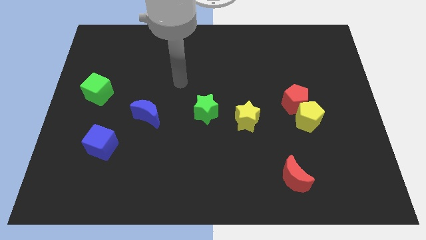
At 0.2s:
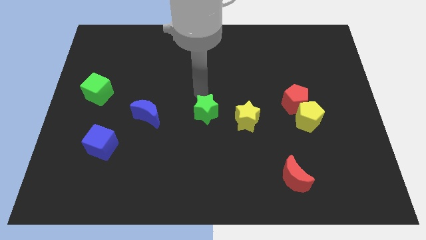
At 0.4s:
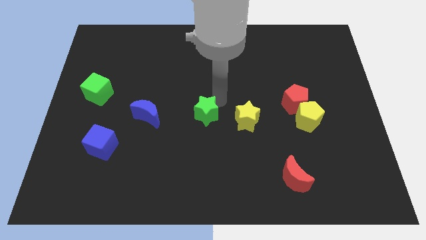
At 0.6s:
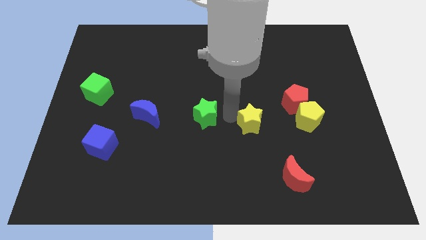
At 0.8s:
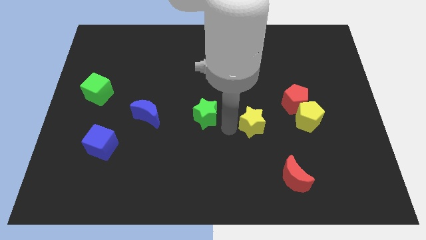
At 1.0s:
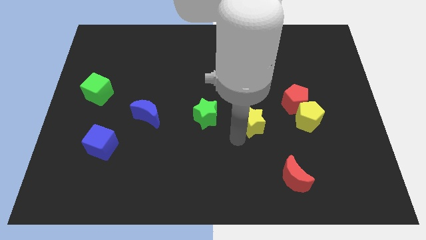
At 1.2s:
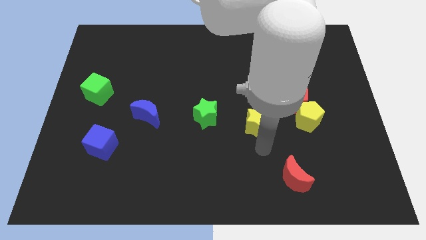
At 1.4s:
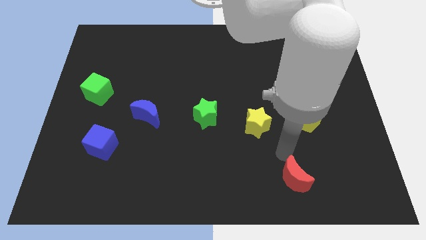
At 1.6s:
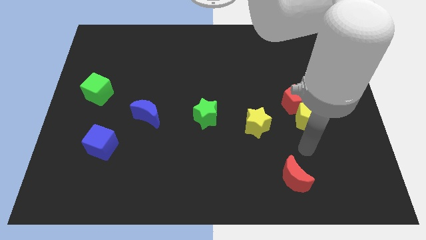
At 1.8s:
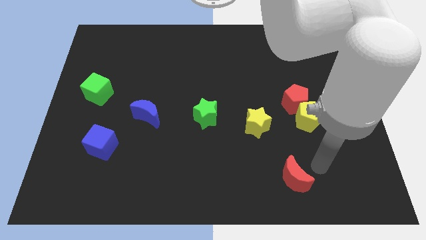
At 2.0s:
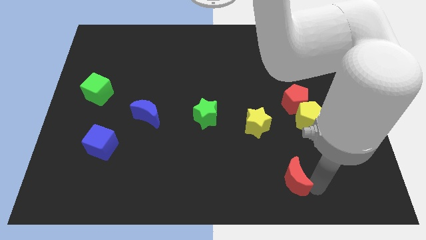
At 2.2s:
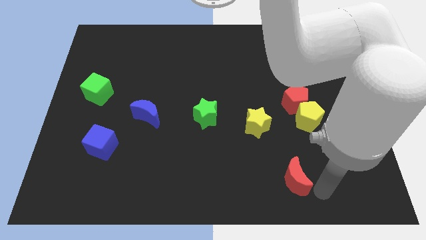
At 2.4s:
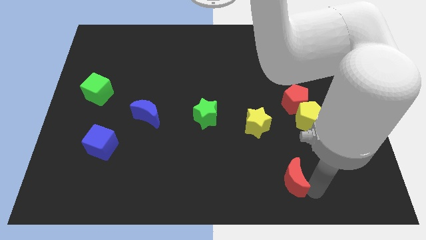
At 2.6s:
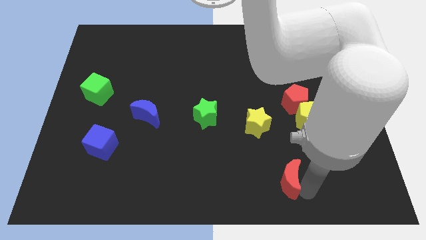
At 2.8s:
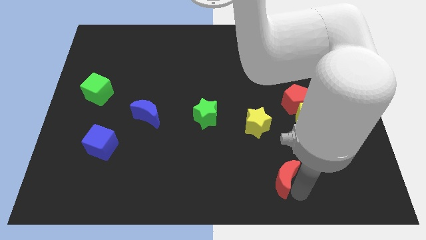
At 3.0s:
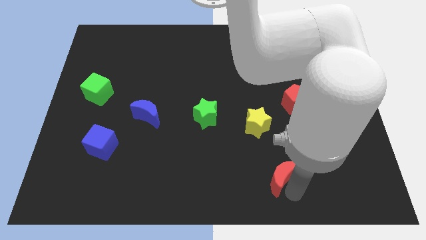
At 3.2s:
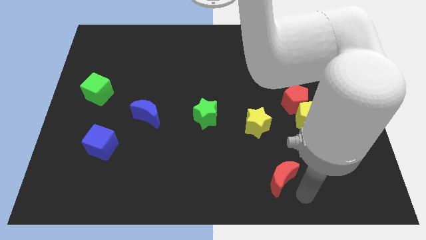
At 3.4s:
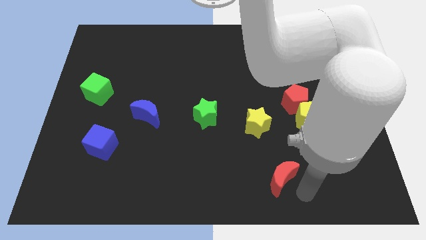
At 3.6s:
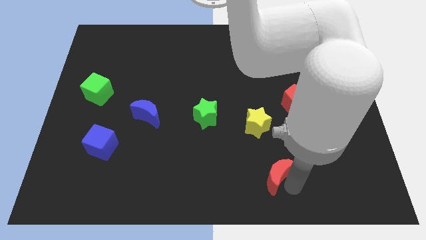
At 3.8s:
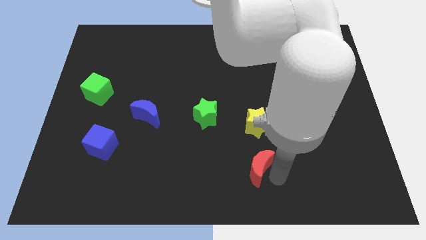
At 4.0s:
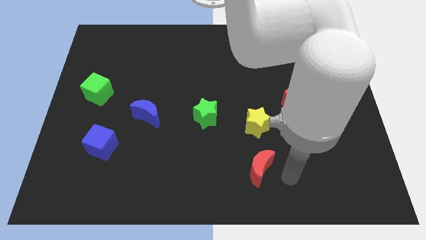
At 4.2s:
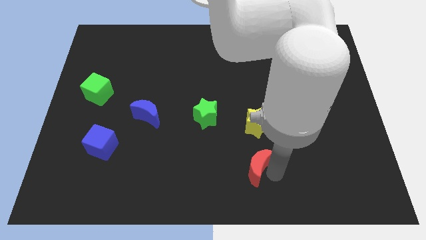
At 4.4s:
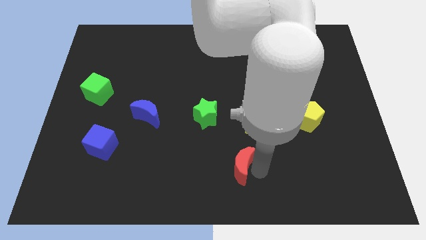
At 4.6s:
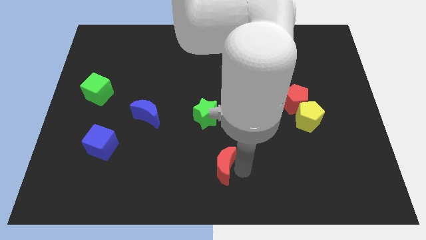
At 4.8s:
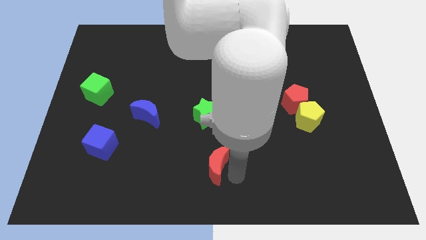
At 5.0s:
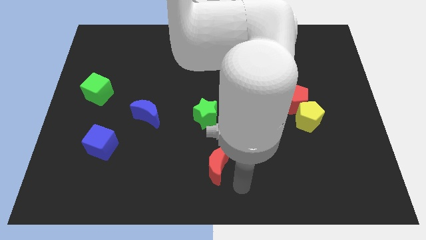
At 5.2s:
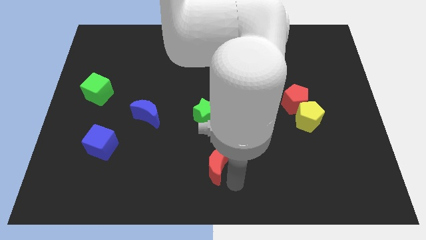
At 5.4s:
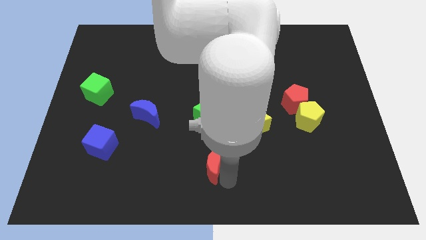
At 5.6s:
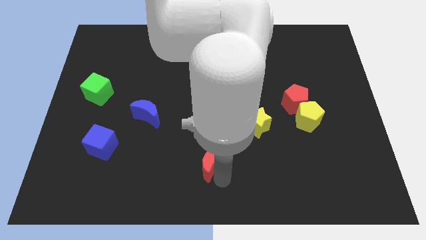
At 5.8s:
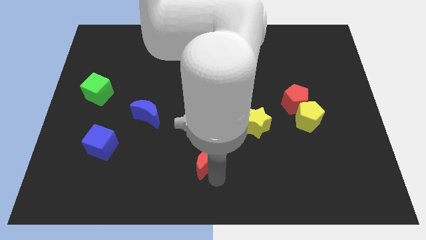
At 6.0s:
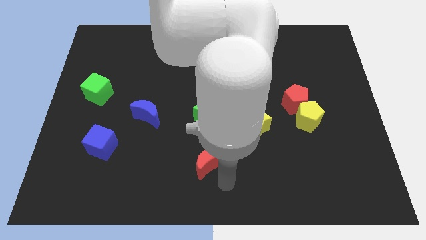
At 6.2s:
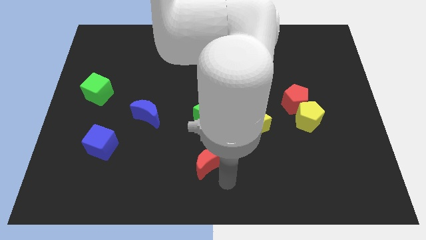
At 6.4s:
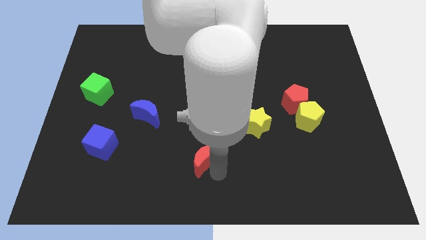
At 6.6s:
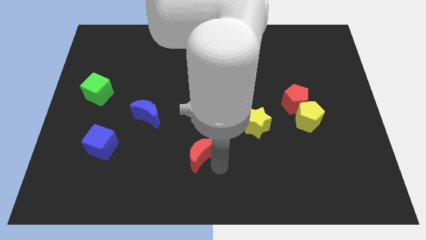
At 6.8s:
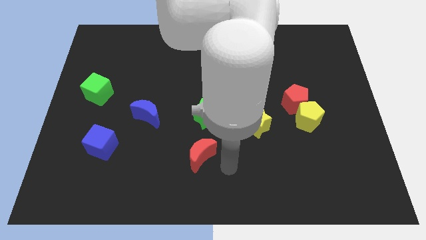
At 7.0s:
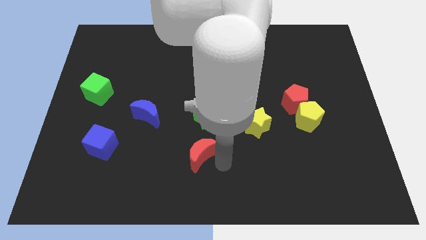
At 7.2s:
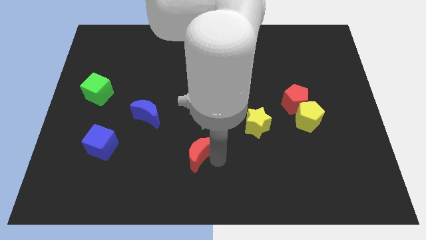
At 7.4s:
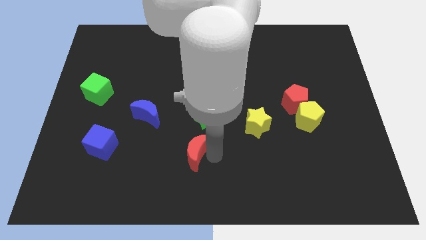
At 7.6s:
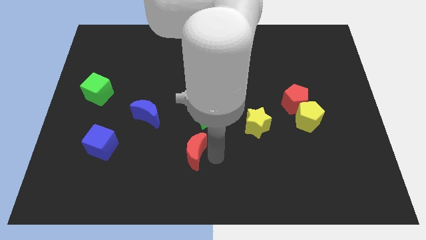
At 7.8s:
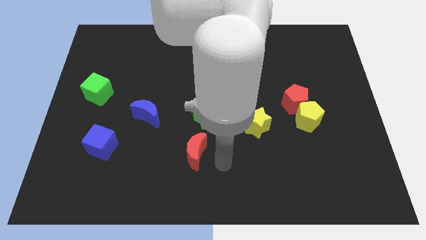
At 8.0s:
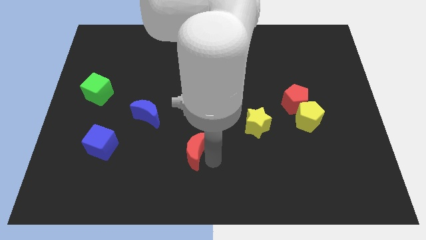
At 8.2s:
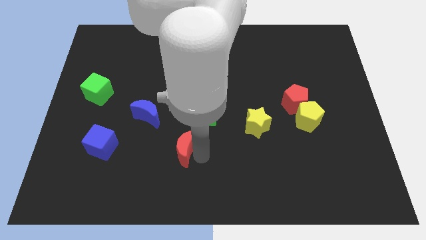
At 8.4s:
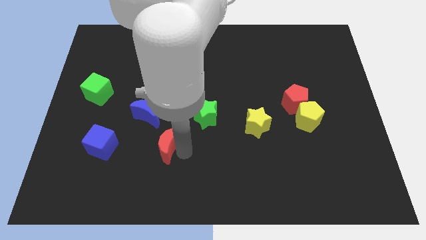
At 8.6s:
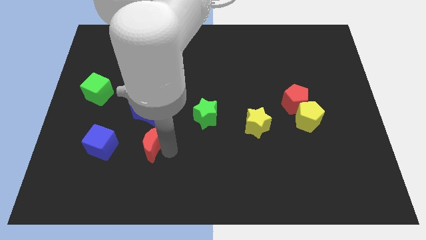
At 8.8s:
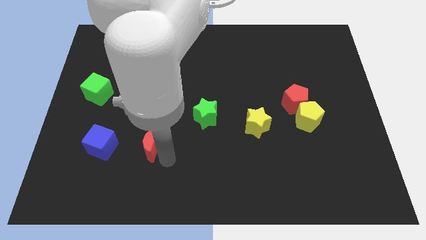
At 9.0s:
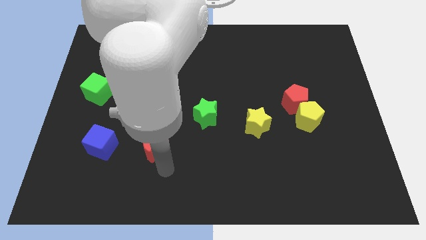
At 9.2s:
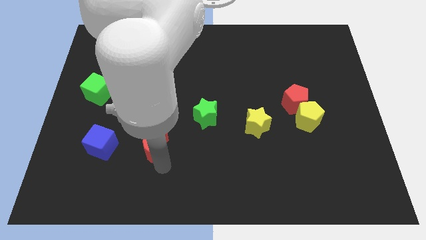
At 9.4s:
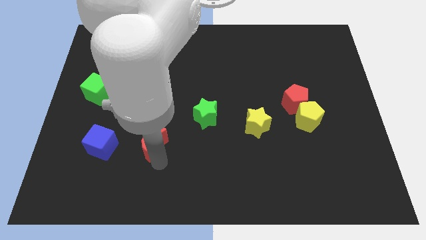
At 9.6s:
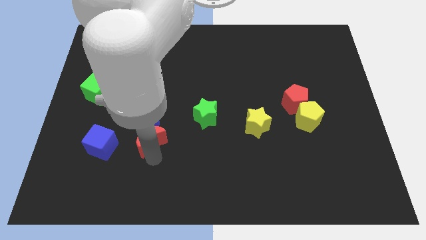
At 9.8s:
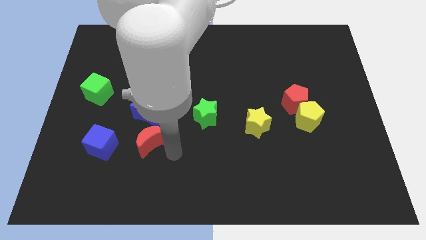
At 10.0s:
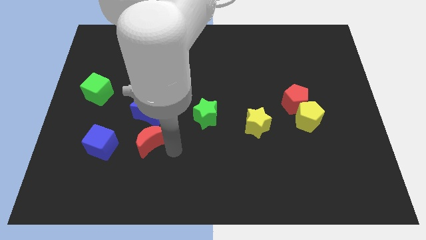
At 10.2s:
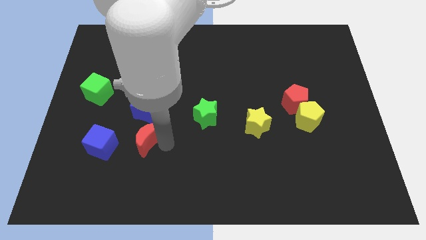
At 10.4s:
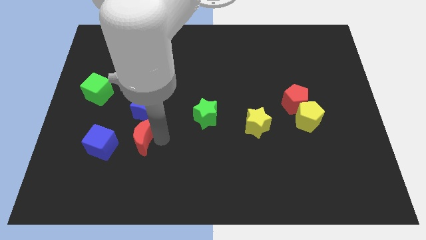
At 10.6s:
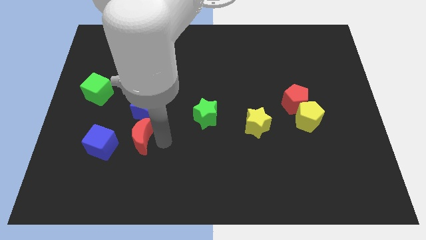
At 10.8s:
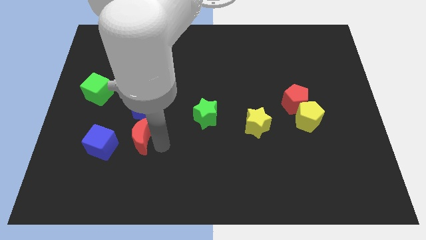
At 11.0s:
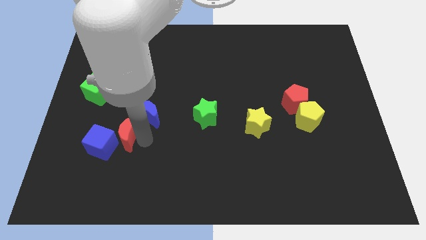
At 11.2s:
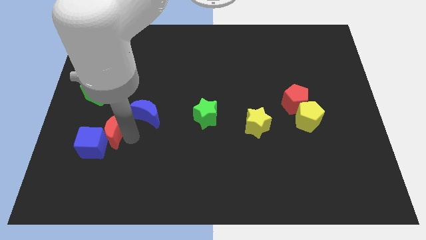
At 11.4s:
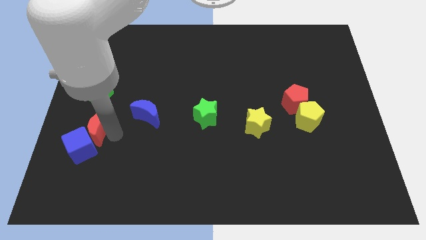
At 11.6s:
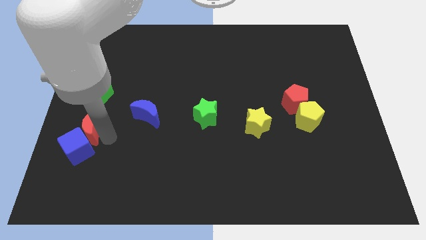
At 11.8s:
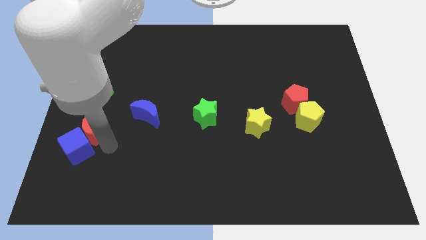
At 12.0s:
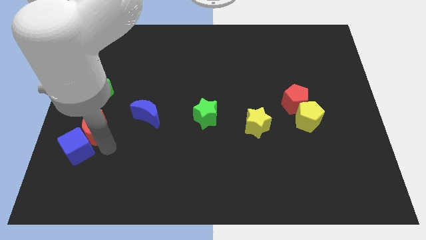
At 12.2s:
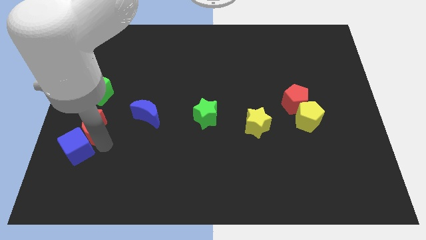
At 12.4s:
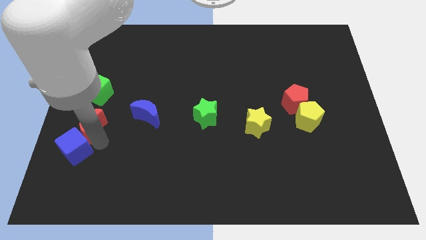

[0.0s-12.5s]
move the red moon to the left side

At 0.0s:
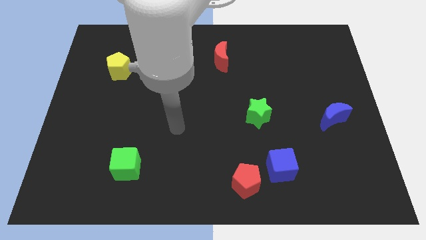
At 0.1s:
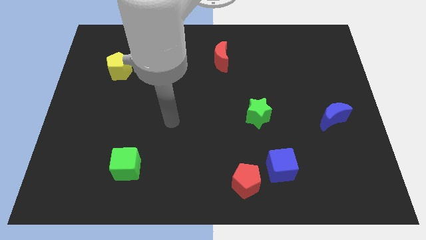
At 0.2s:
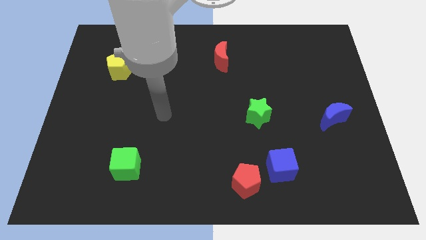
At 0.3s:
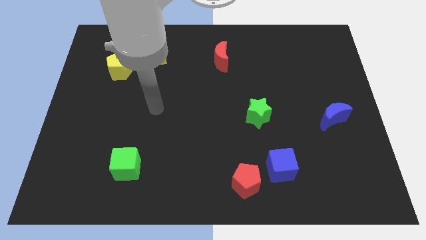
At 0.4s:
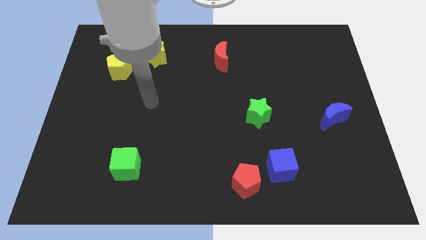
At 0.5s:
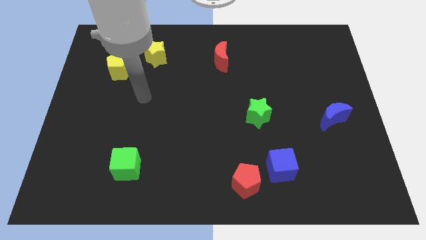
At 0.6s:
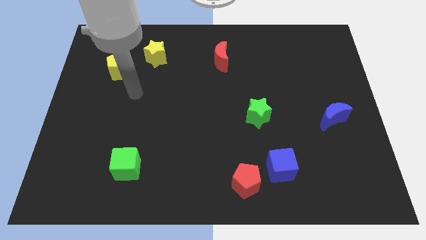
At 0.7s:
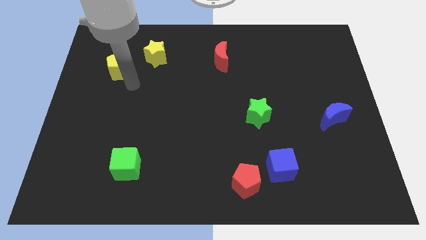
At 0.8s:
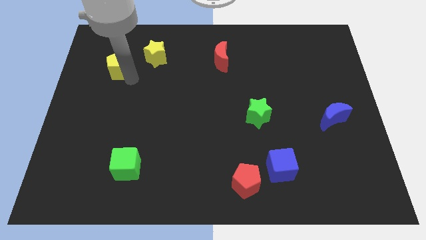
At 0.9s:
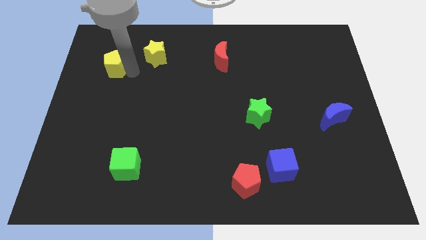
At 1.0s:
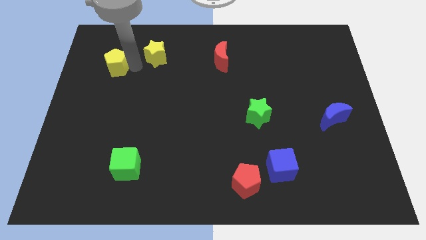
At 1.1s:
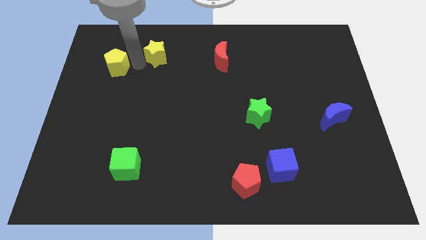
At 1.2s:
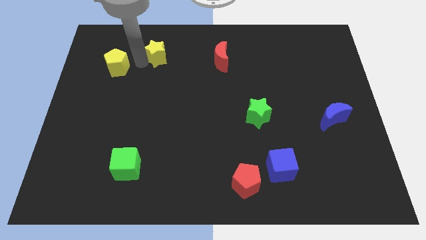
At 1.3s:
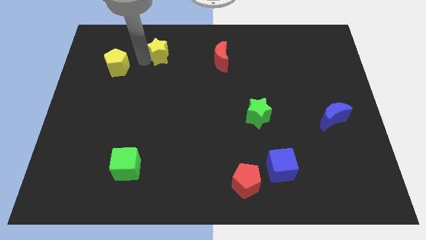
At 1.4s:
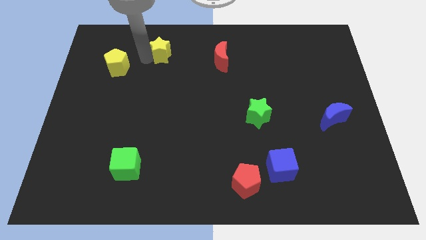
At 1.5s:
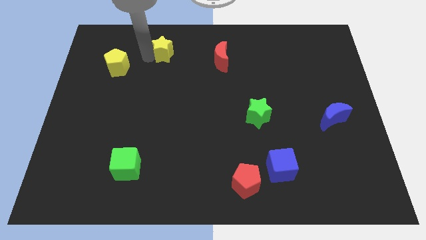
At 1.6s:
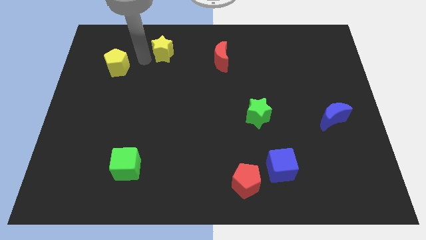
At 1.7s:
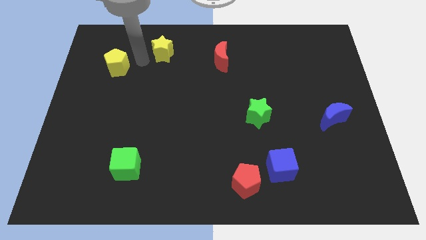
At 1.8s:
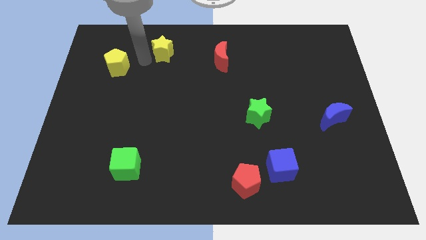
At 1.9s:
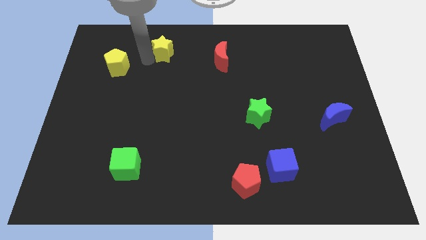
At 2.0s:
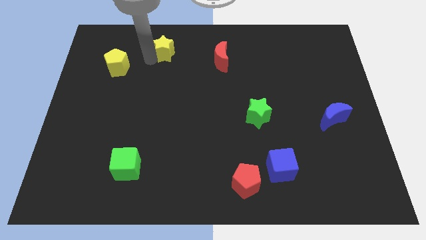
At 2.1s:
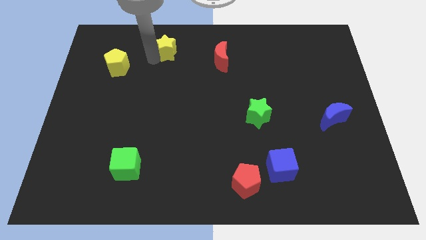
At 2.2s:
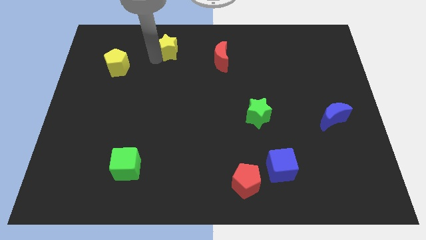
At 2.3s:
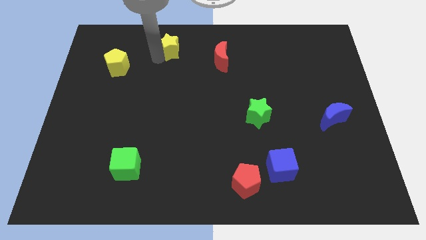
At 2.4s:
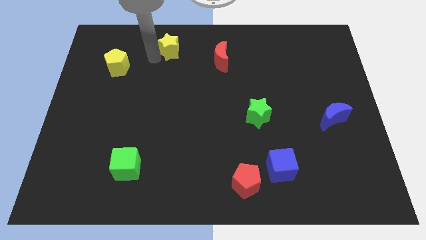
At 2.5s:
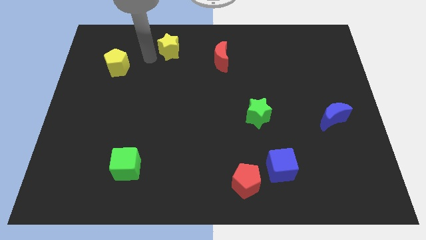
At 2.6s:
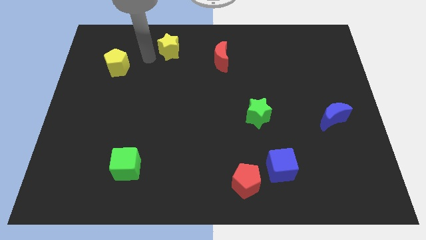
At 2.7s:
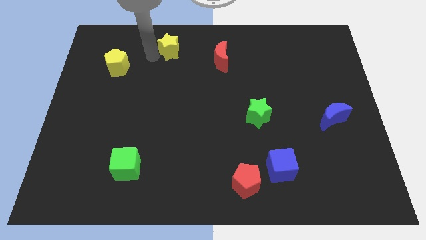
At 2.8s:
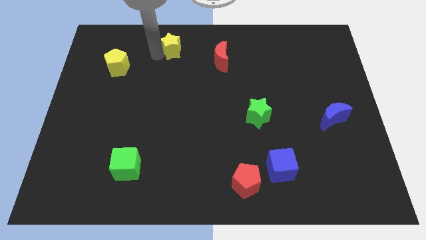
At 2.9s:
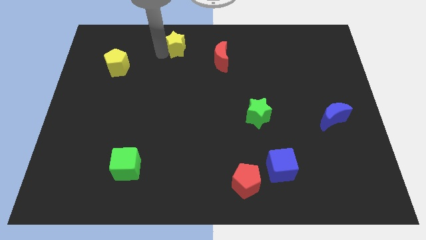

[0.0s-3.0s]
push the yellow star to the towards your base
